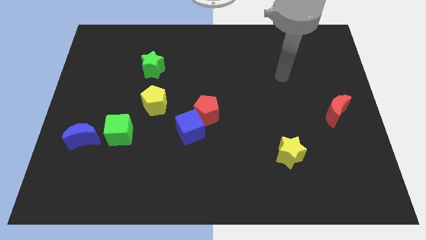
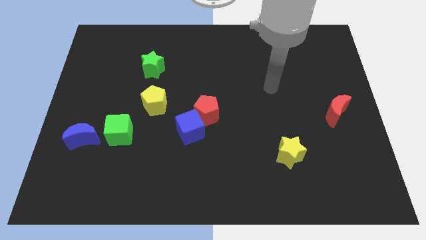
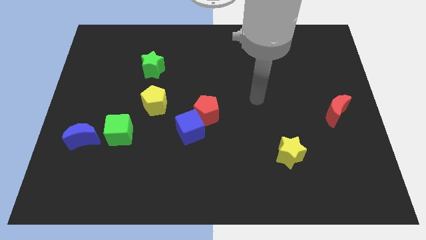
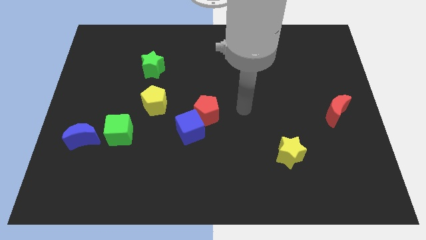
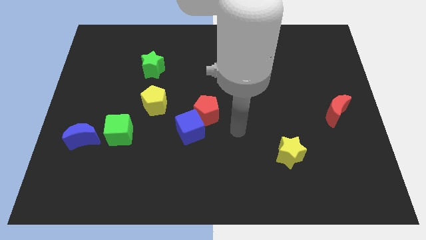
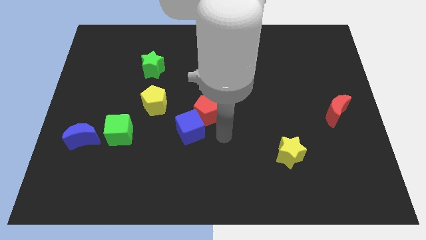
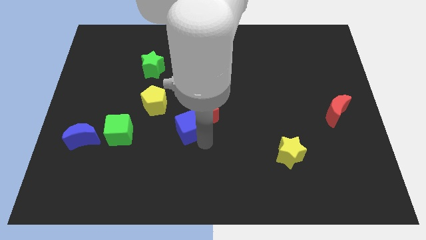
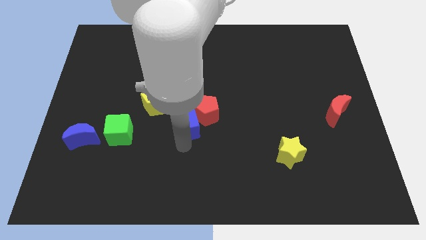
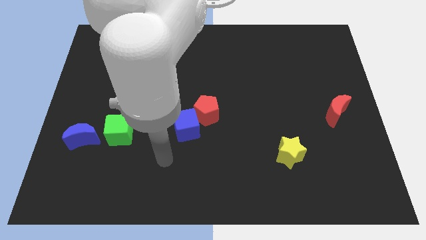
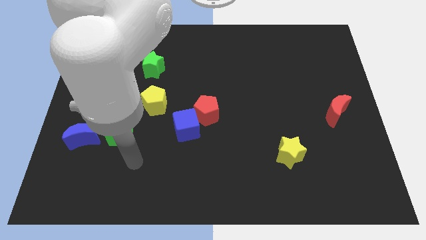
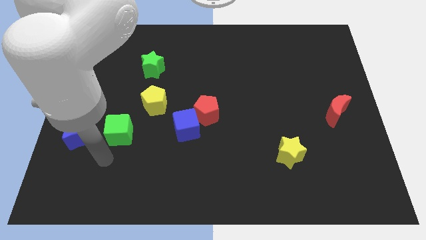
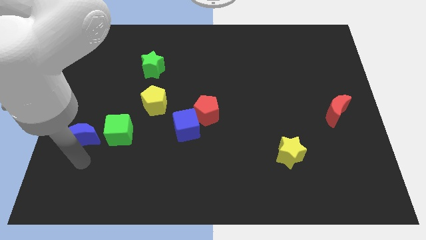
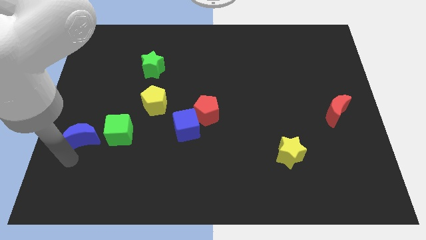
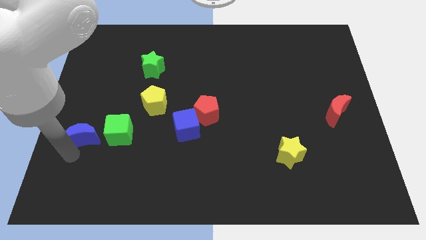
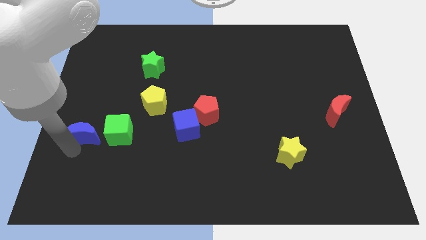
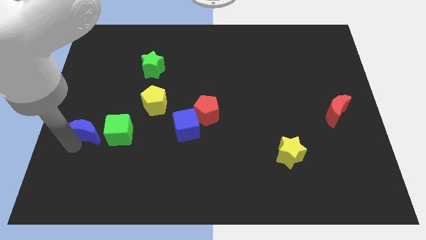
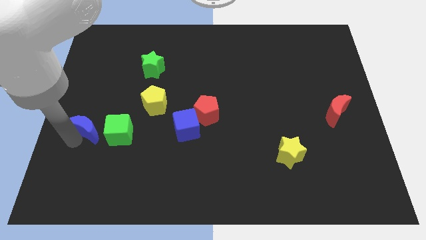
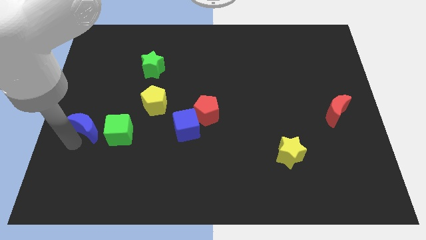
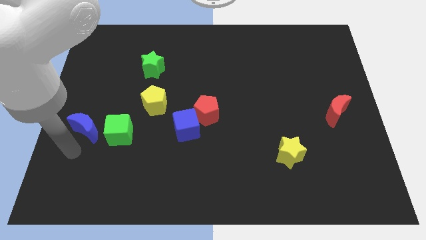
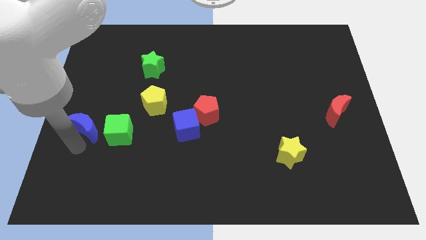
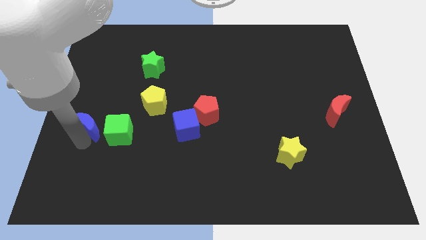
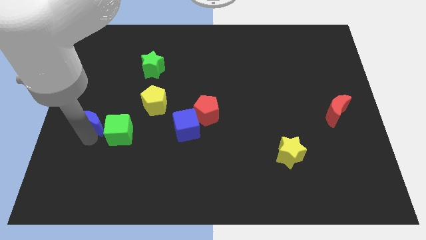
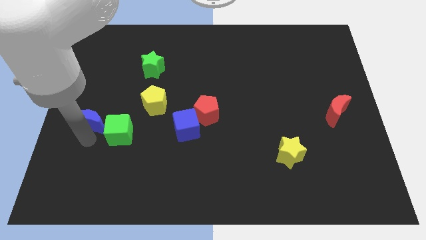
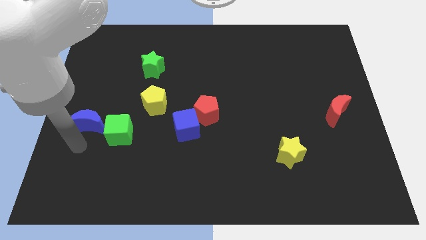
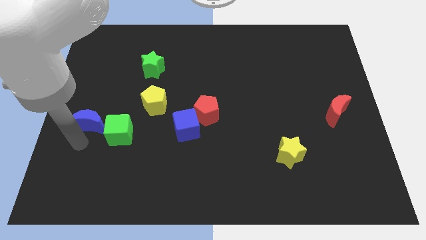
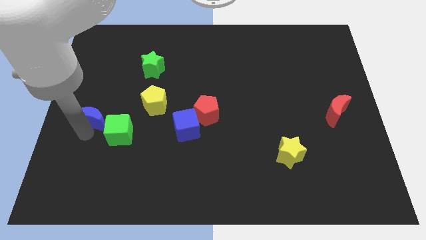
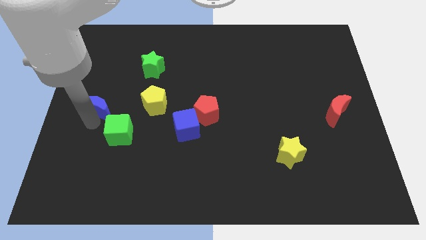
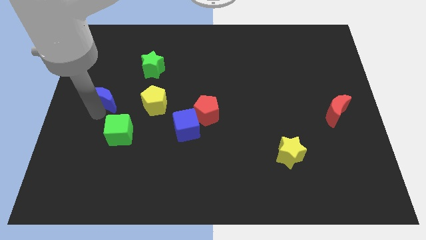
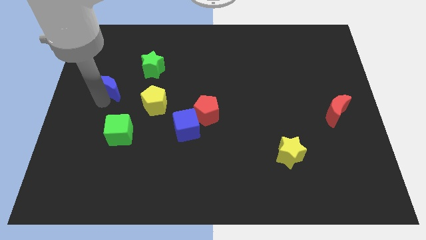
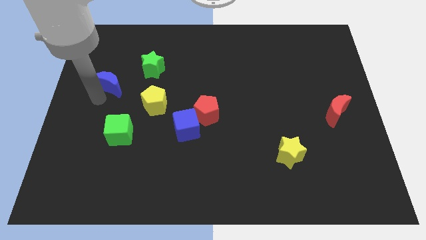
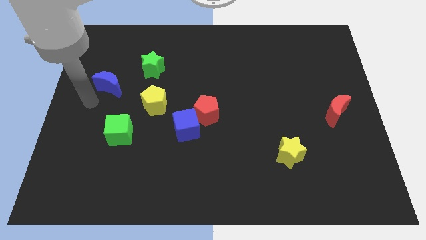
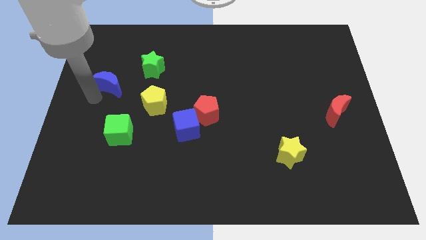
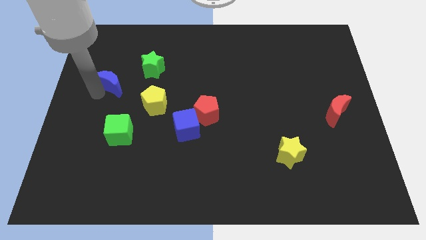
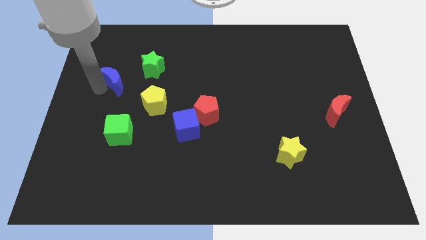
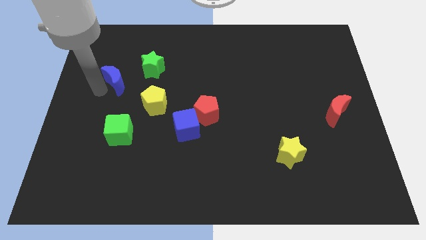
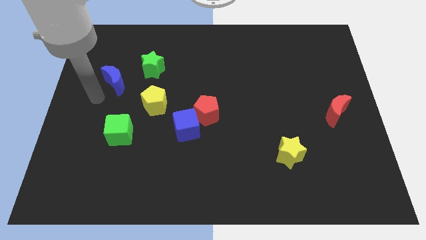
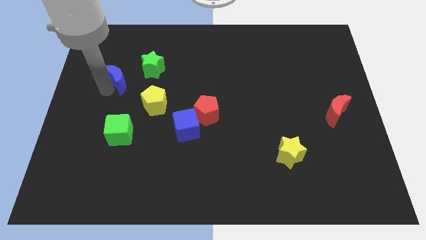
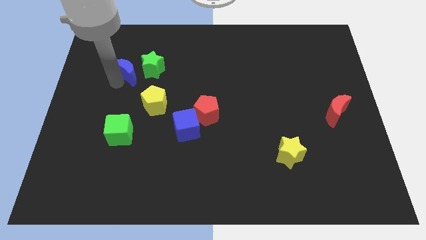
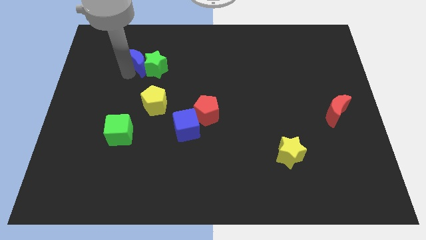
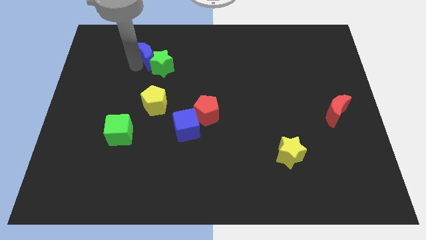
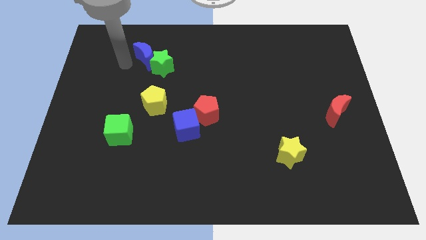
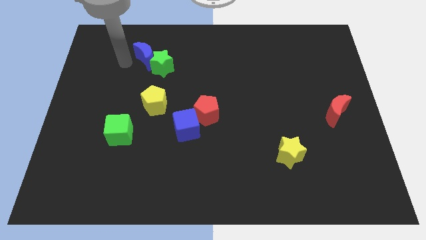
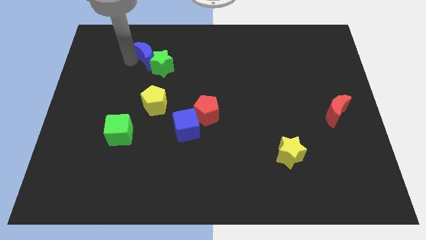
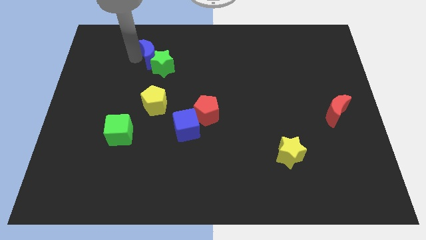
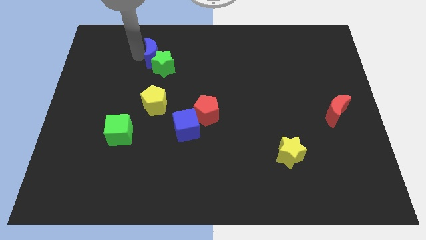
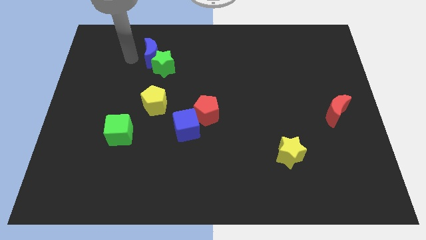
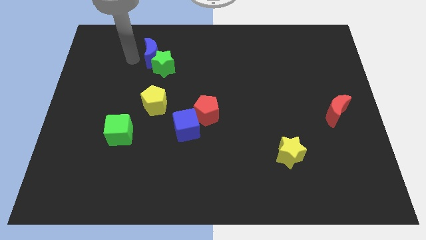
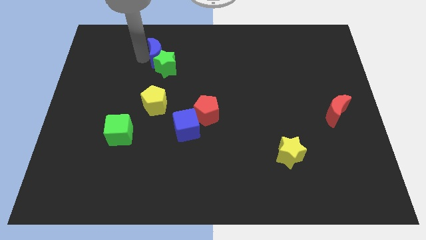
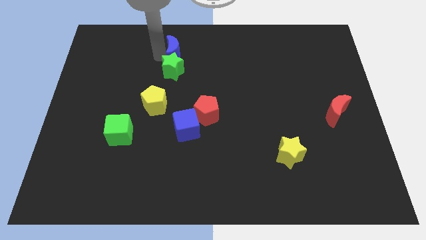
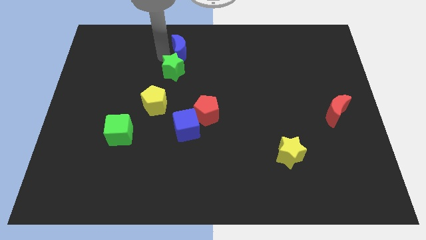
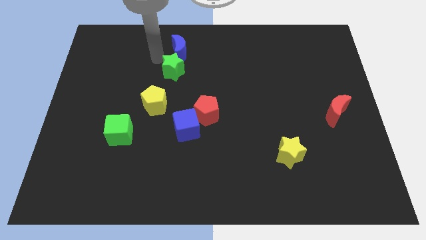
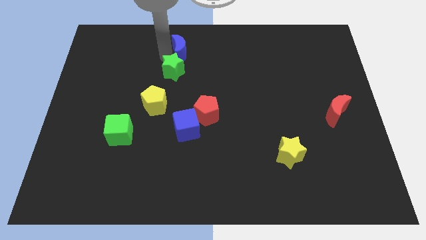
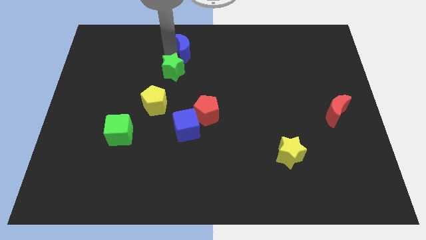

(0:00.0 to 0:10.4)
push the blue moon to the towards your base

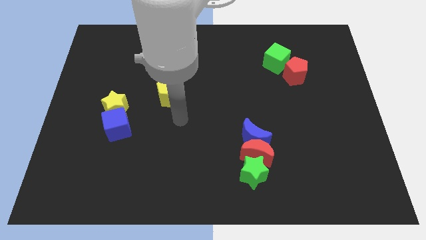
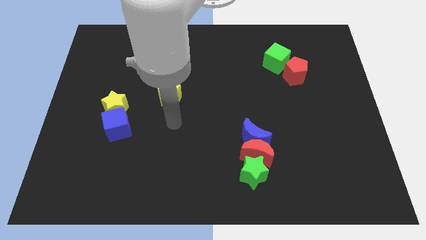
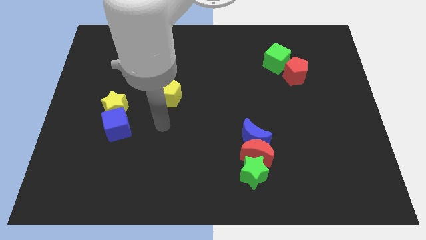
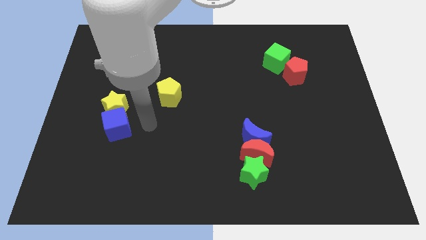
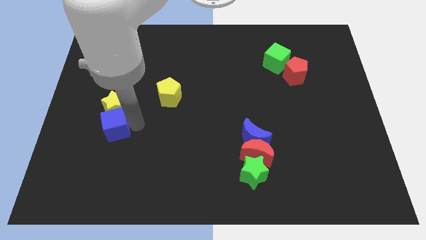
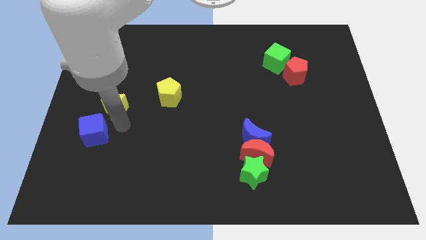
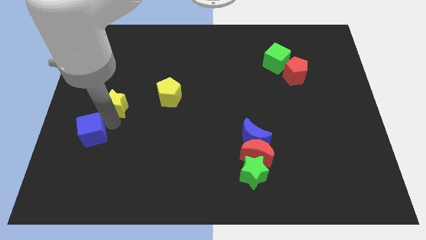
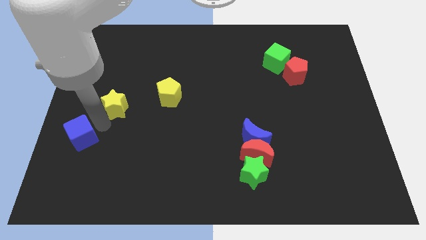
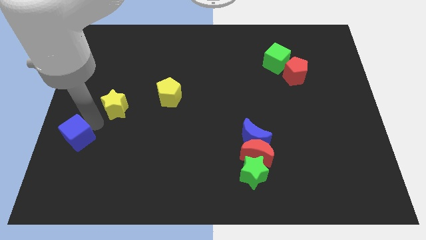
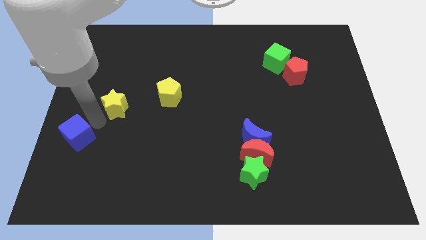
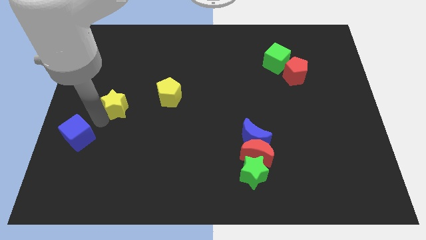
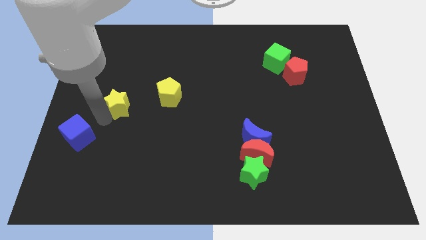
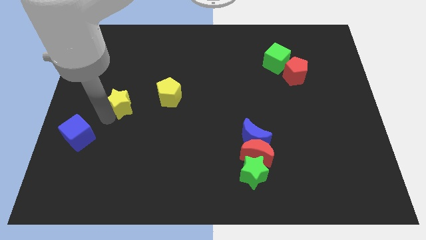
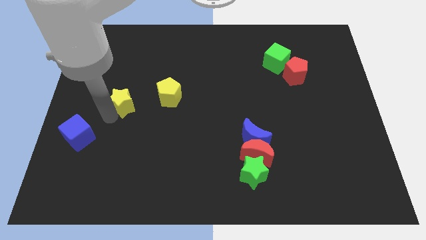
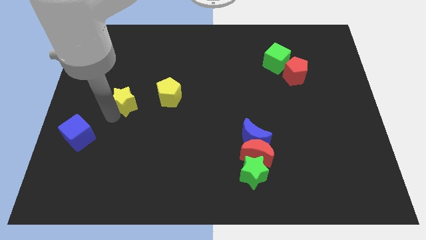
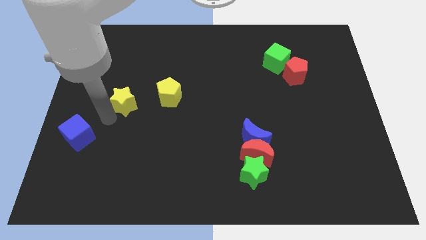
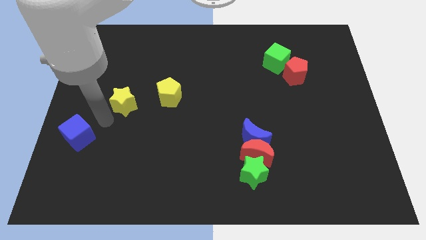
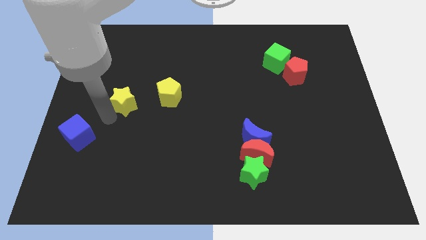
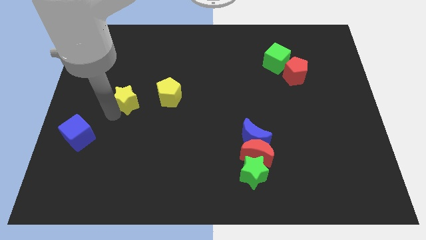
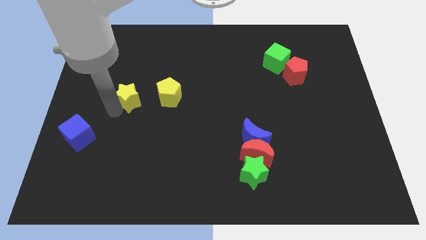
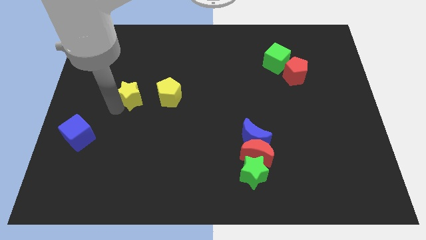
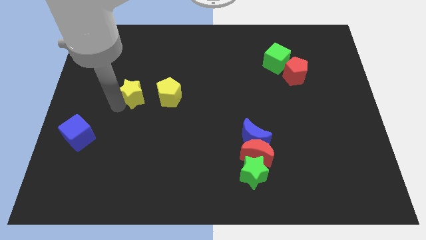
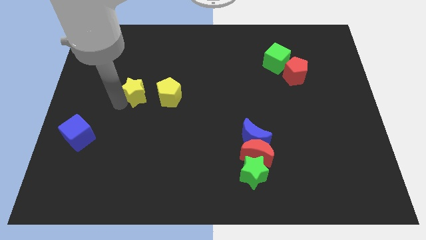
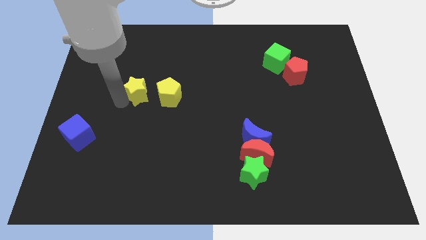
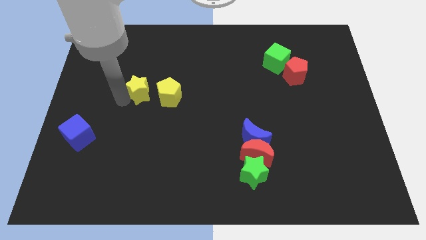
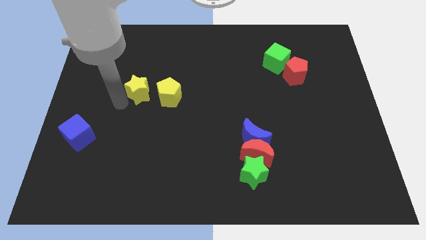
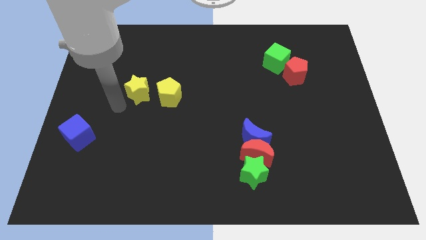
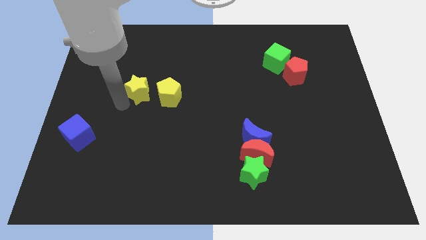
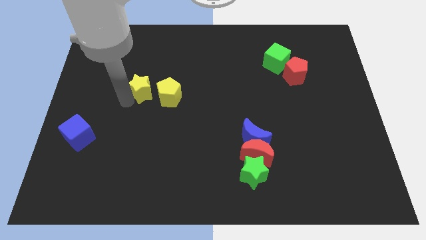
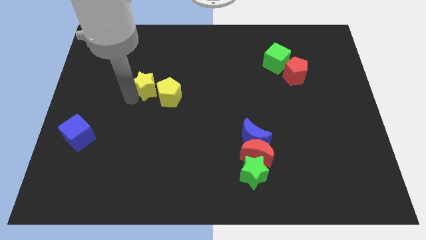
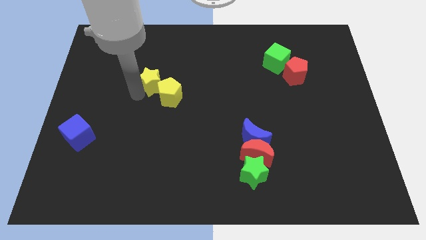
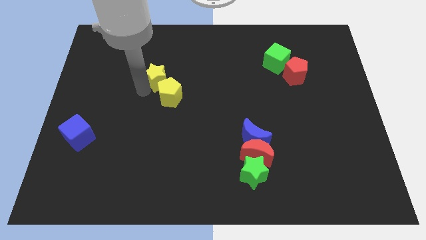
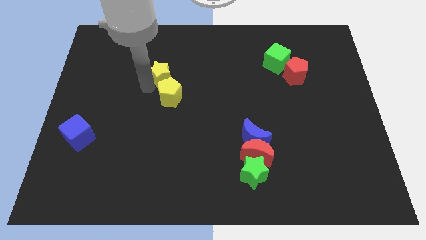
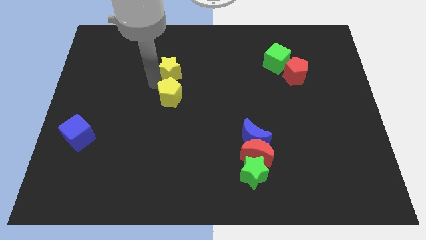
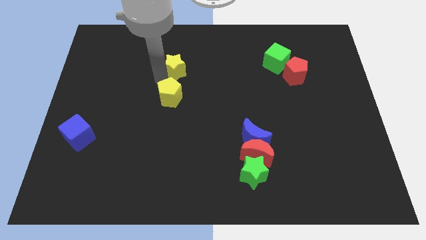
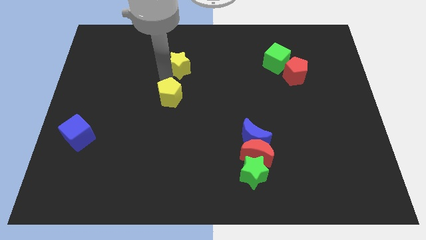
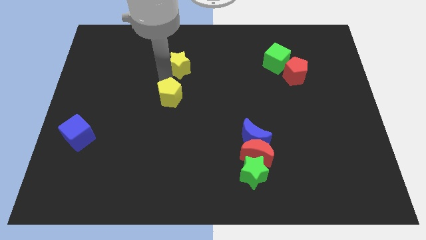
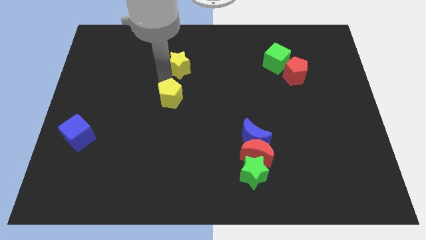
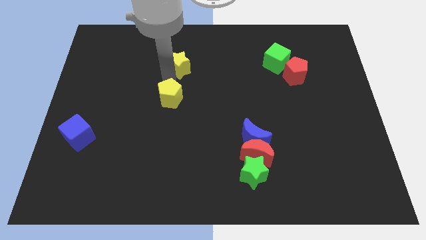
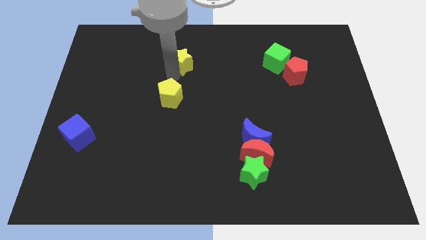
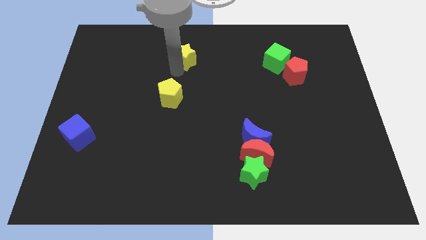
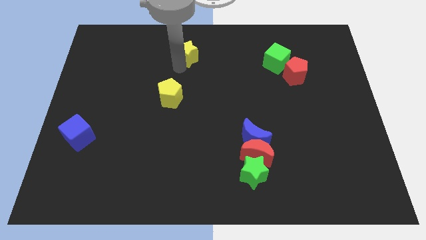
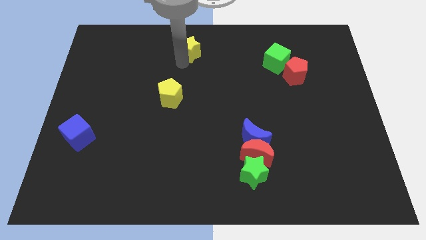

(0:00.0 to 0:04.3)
move the yellow star to the top side
